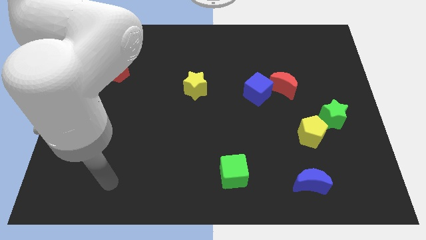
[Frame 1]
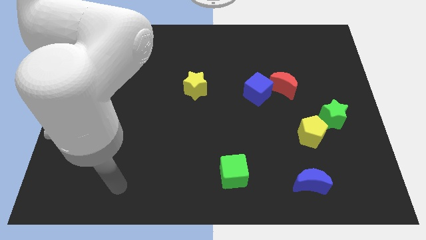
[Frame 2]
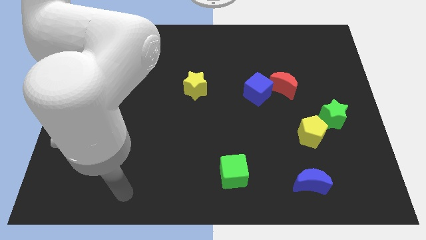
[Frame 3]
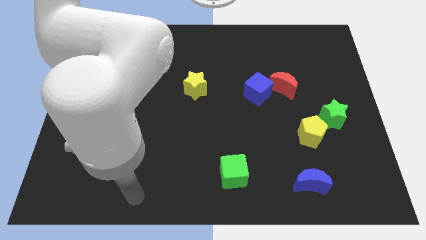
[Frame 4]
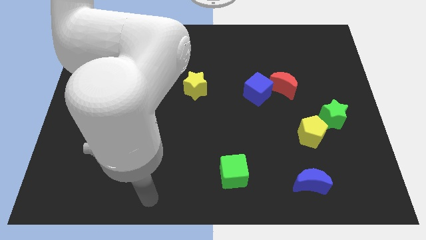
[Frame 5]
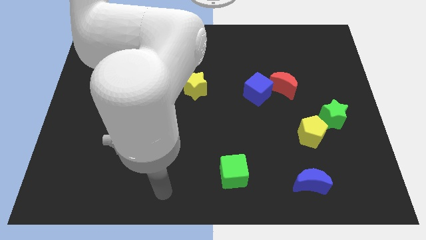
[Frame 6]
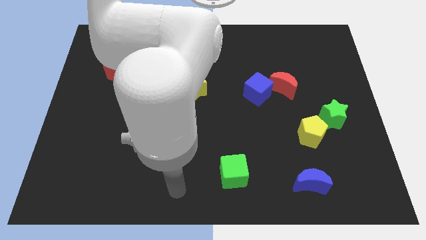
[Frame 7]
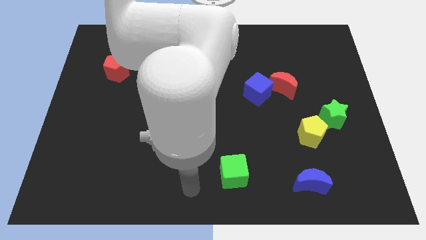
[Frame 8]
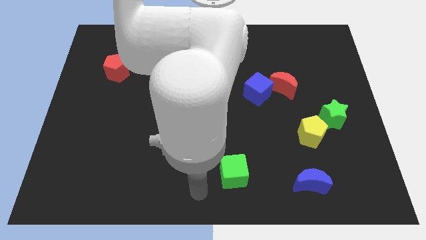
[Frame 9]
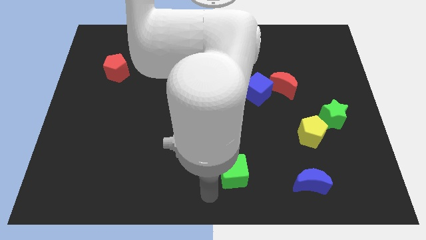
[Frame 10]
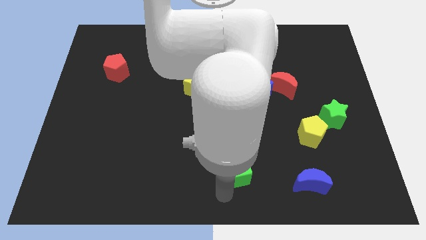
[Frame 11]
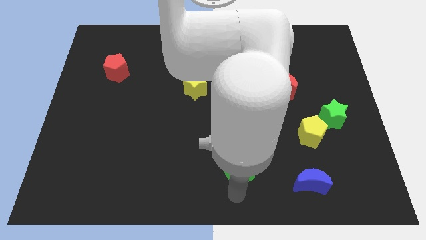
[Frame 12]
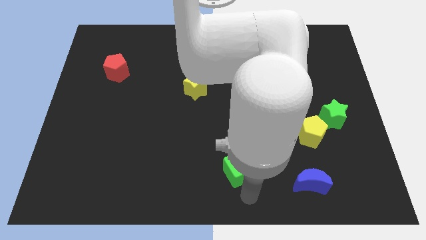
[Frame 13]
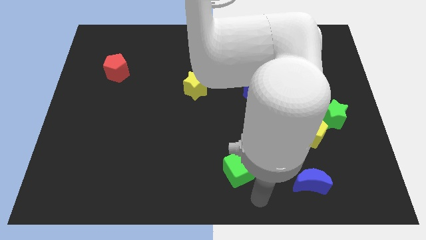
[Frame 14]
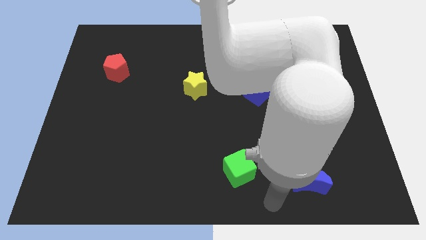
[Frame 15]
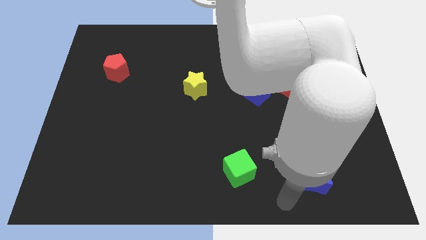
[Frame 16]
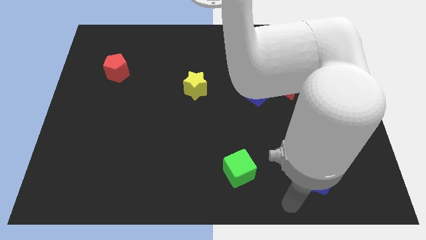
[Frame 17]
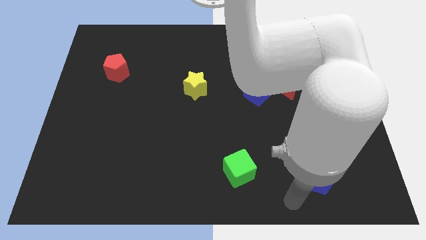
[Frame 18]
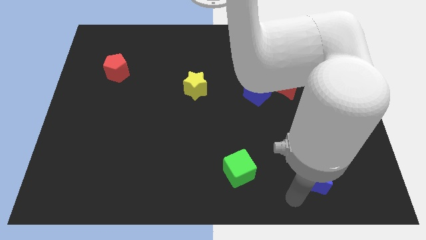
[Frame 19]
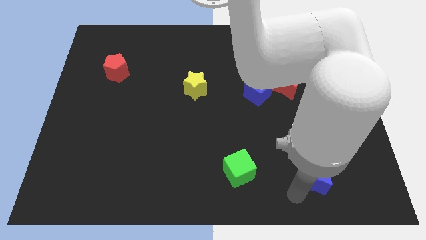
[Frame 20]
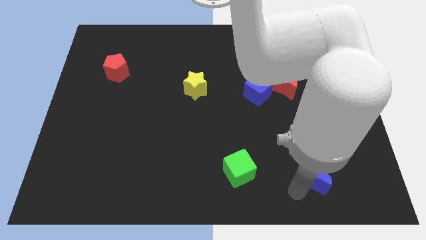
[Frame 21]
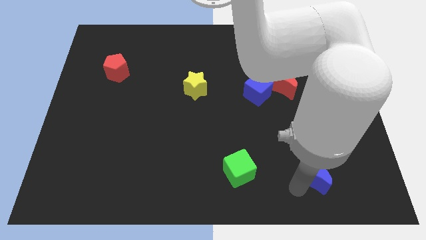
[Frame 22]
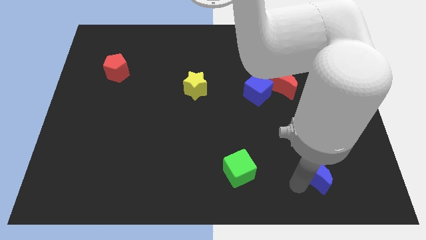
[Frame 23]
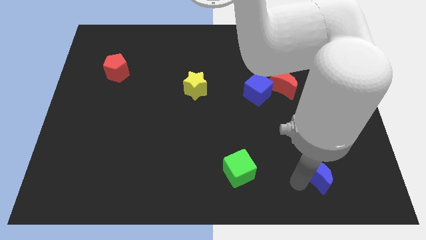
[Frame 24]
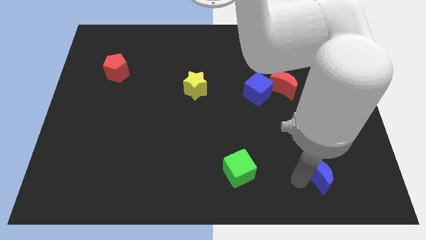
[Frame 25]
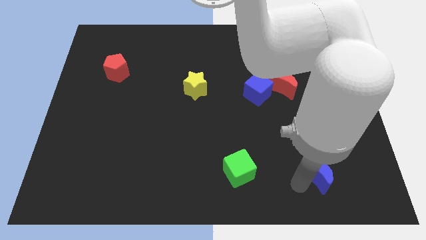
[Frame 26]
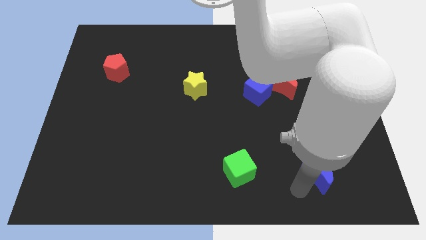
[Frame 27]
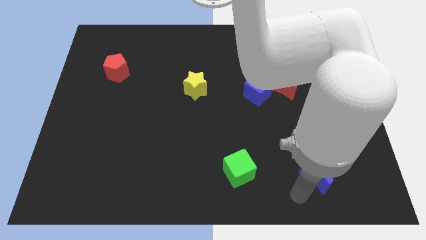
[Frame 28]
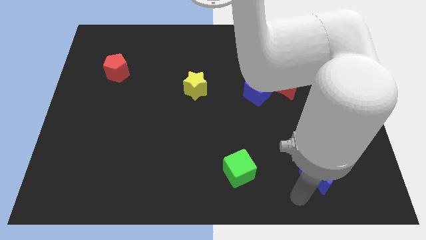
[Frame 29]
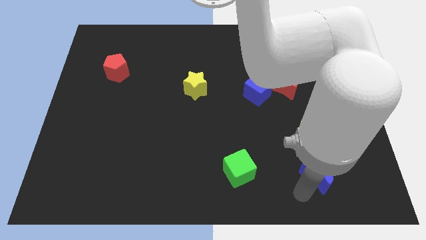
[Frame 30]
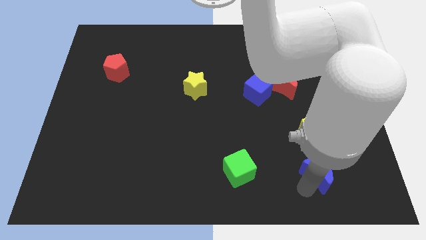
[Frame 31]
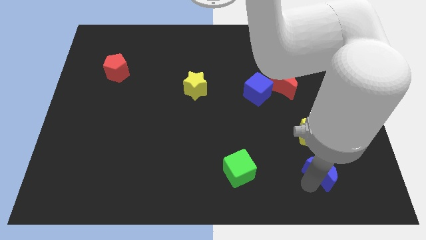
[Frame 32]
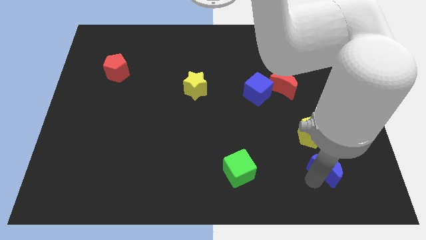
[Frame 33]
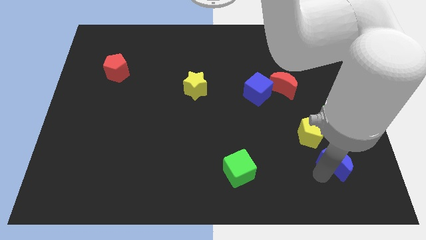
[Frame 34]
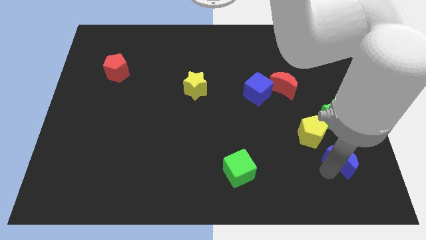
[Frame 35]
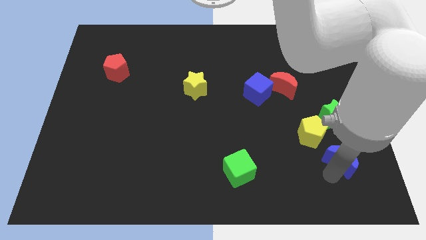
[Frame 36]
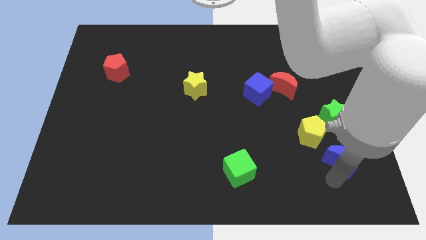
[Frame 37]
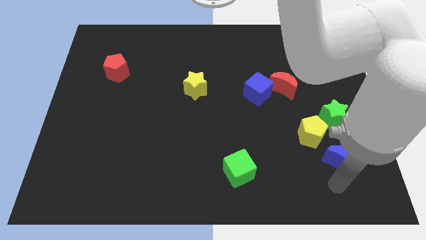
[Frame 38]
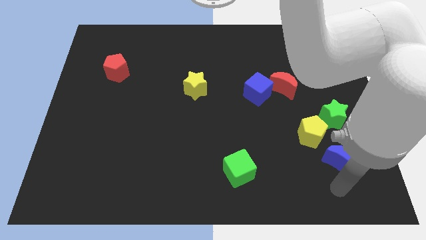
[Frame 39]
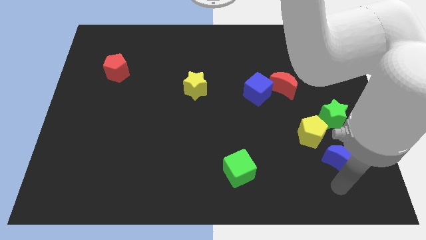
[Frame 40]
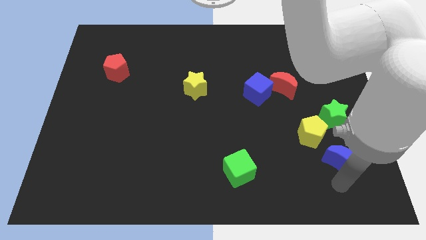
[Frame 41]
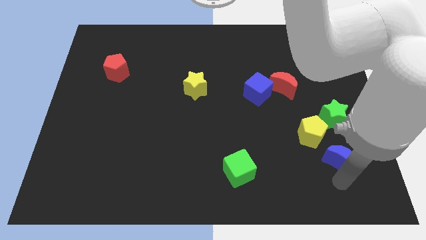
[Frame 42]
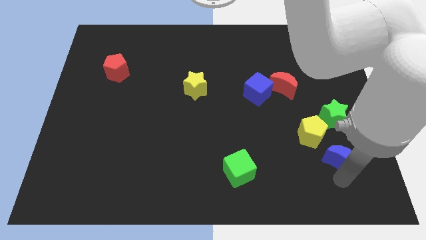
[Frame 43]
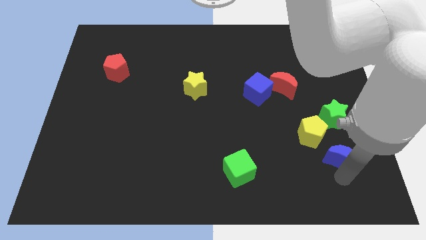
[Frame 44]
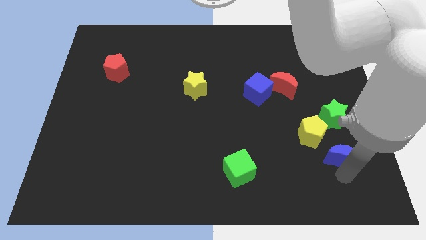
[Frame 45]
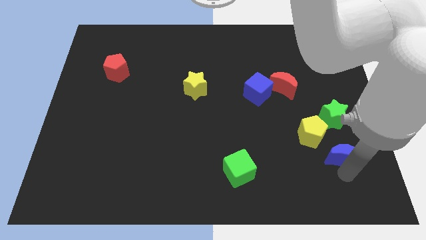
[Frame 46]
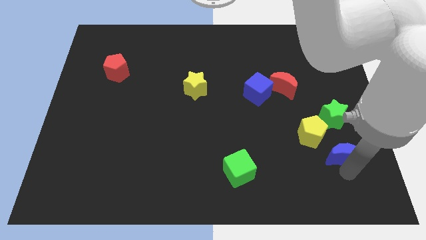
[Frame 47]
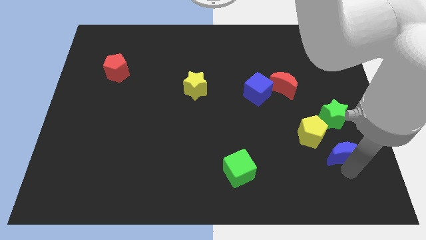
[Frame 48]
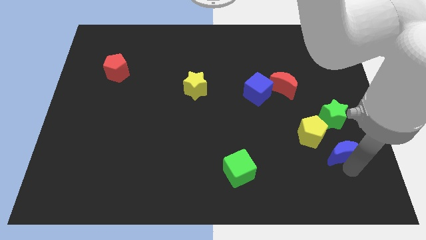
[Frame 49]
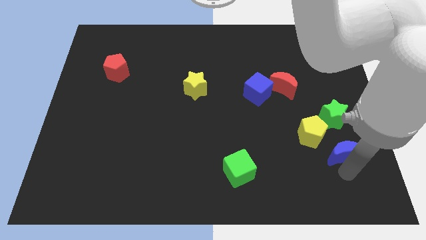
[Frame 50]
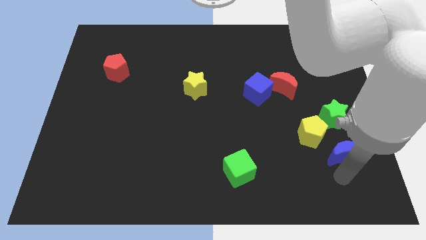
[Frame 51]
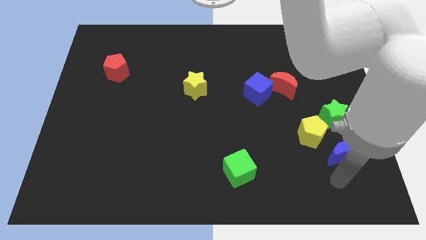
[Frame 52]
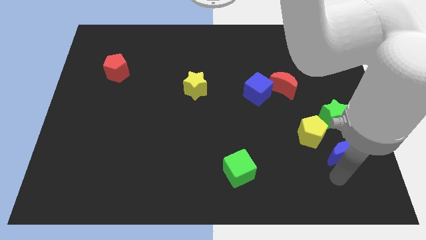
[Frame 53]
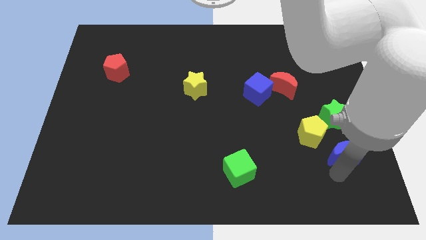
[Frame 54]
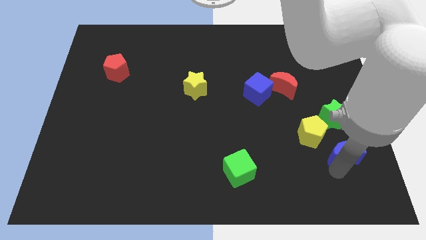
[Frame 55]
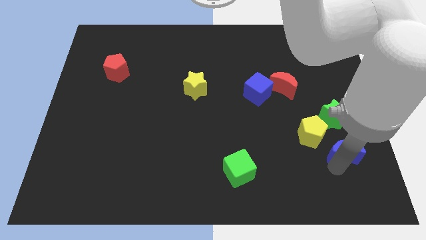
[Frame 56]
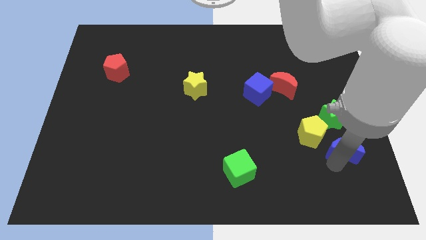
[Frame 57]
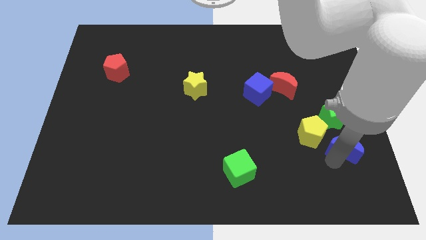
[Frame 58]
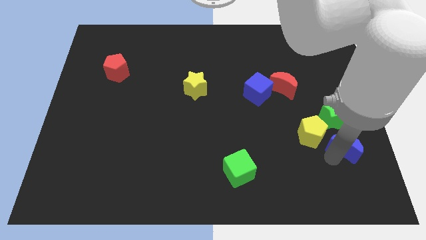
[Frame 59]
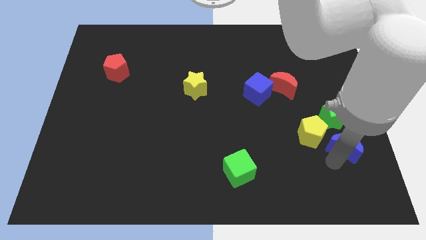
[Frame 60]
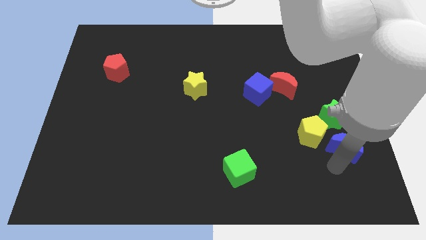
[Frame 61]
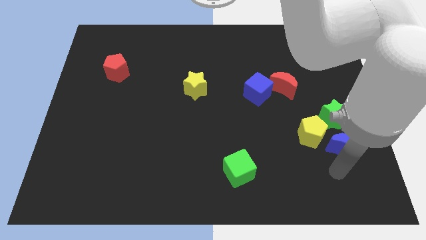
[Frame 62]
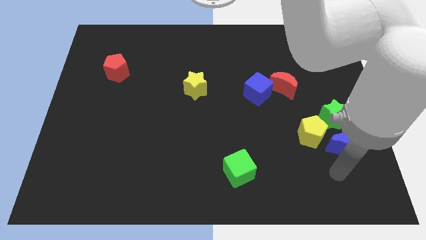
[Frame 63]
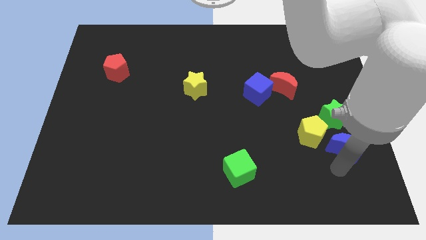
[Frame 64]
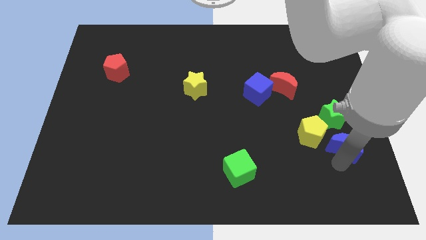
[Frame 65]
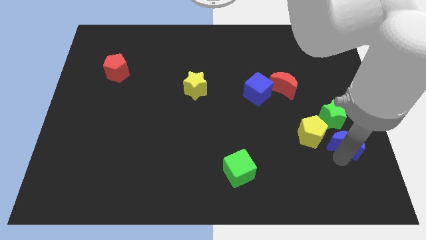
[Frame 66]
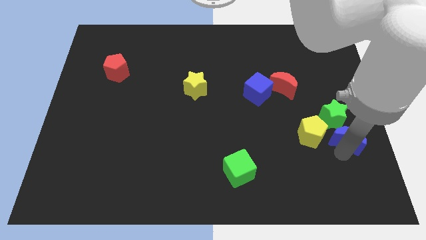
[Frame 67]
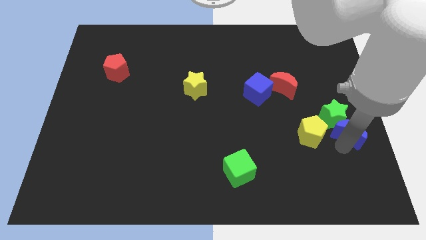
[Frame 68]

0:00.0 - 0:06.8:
push the blue moon to the right side of the board

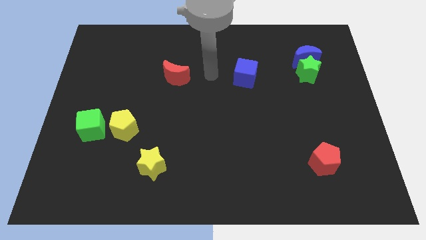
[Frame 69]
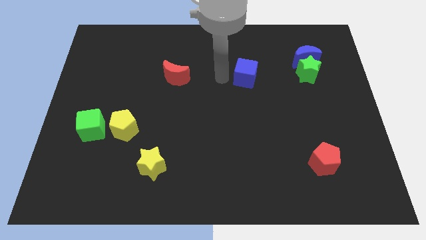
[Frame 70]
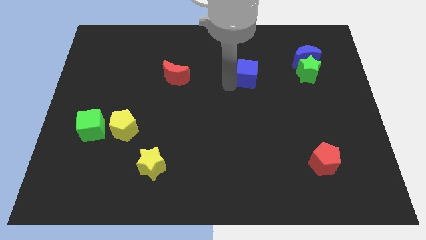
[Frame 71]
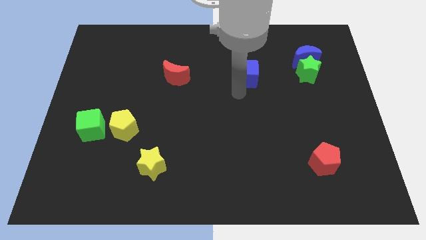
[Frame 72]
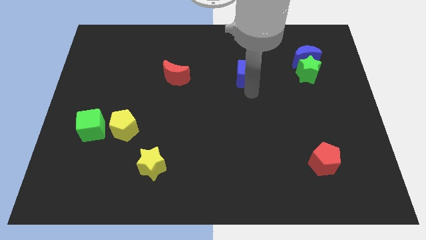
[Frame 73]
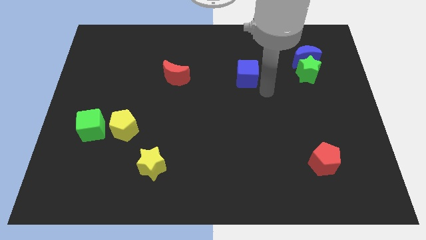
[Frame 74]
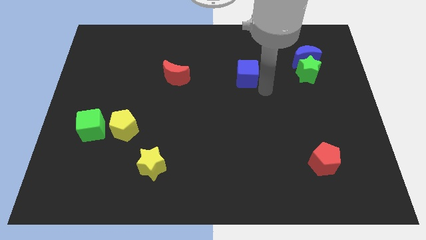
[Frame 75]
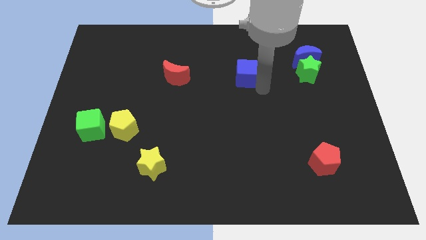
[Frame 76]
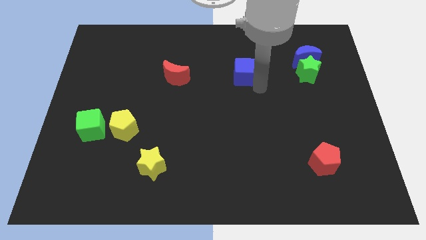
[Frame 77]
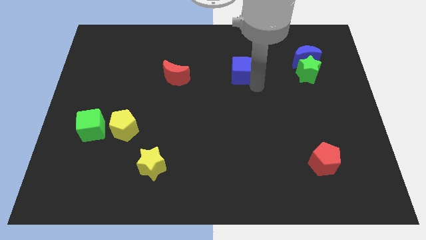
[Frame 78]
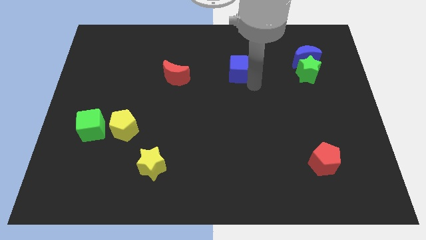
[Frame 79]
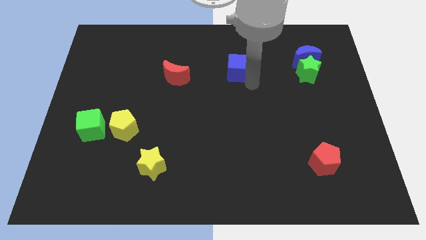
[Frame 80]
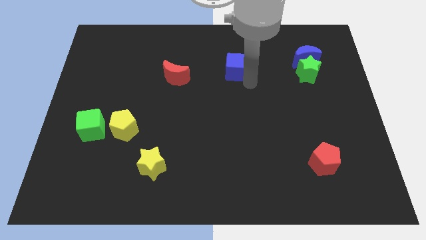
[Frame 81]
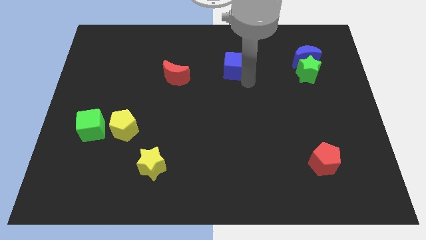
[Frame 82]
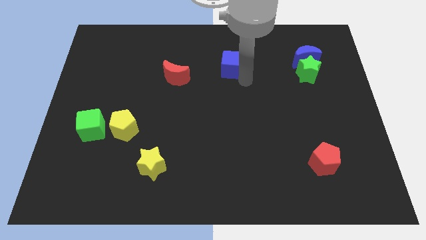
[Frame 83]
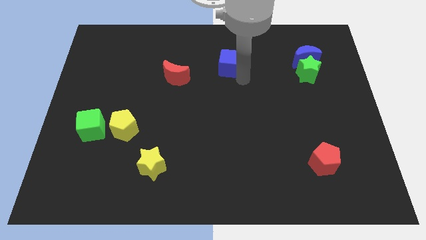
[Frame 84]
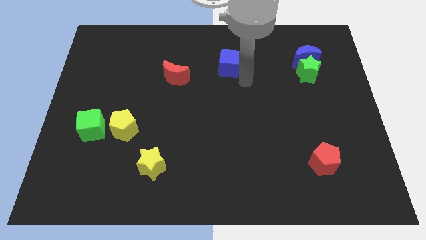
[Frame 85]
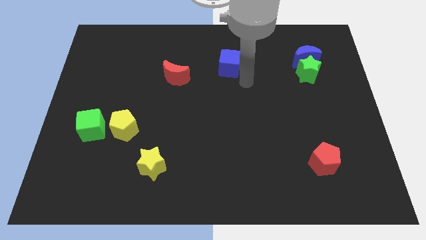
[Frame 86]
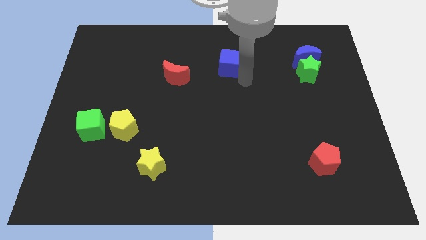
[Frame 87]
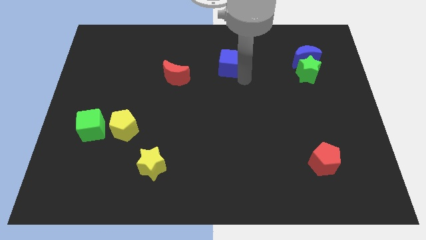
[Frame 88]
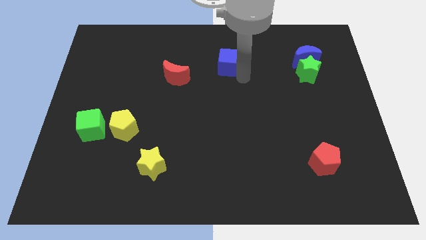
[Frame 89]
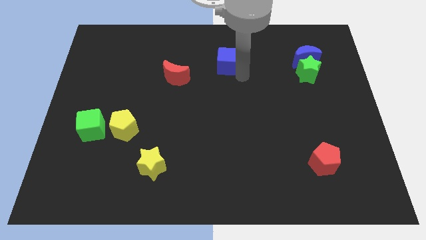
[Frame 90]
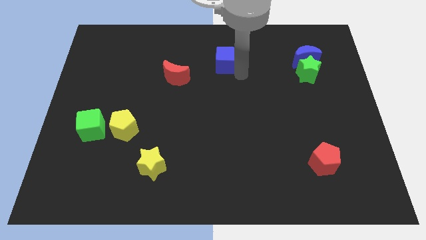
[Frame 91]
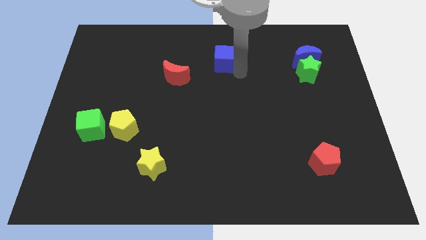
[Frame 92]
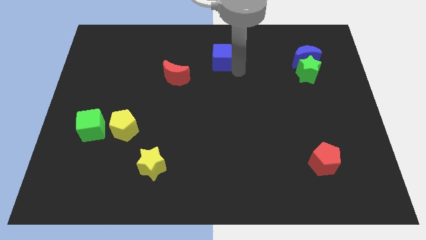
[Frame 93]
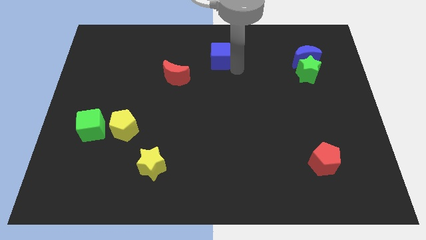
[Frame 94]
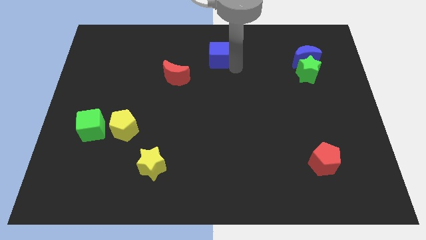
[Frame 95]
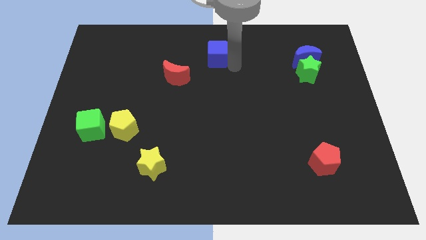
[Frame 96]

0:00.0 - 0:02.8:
slide the blue cube to the top
